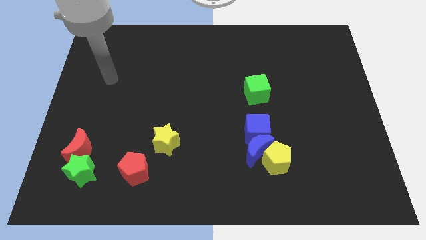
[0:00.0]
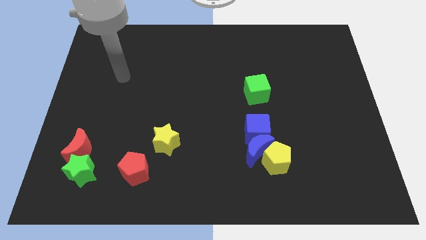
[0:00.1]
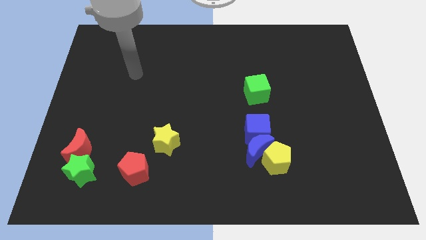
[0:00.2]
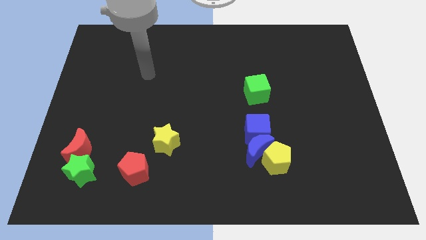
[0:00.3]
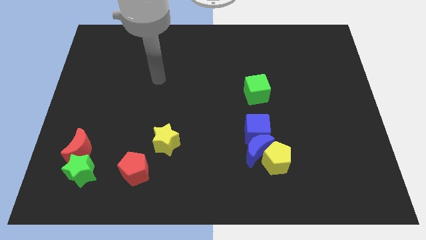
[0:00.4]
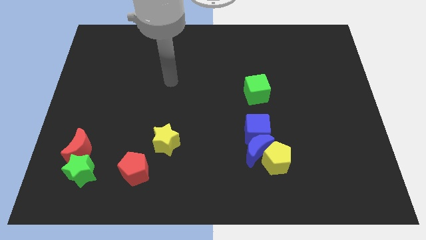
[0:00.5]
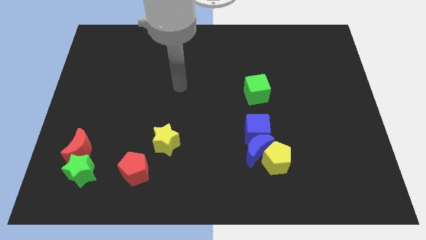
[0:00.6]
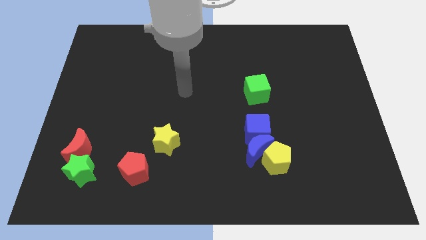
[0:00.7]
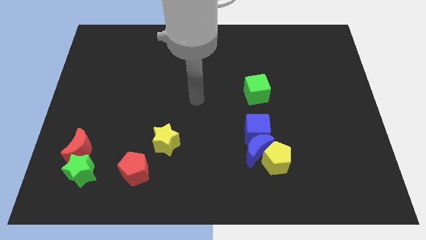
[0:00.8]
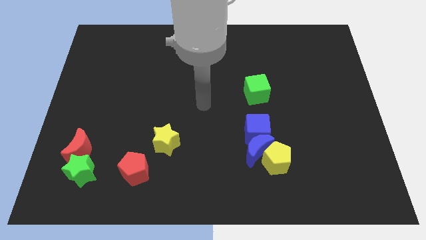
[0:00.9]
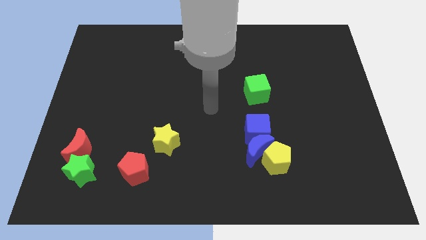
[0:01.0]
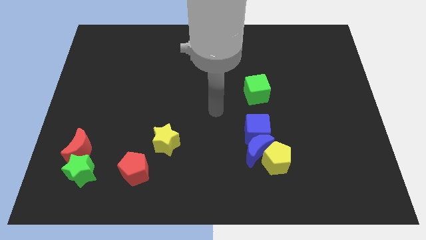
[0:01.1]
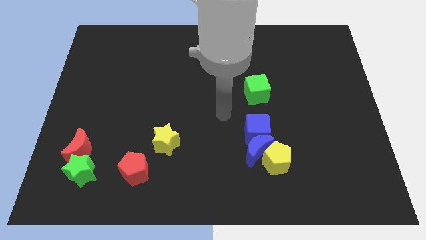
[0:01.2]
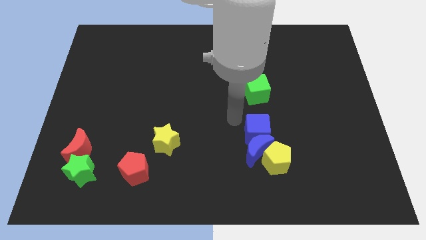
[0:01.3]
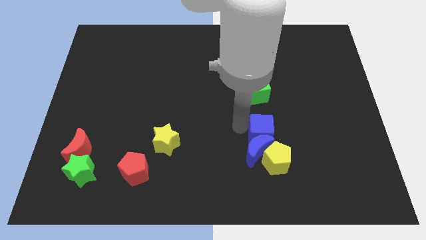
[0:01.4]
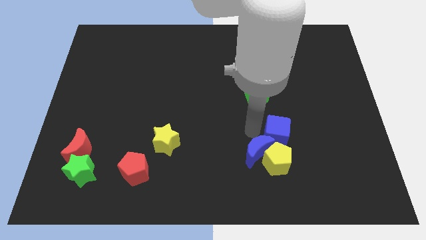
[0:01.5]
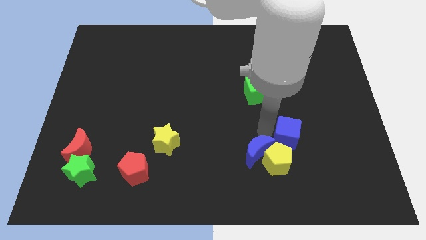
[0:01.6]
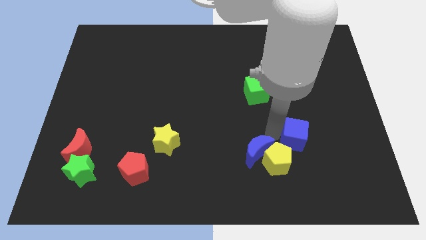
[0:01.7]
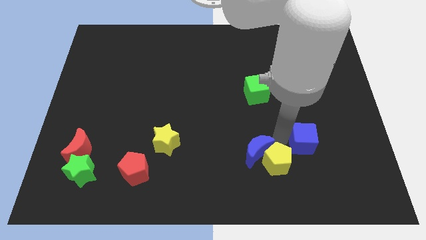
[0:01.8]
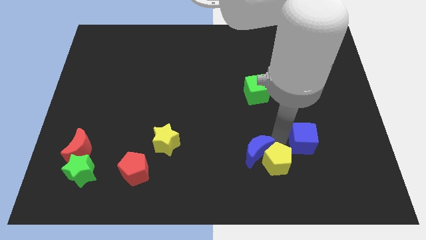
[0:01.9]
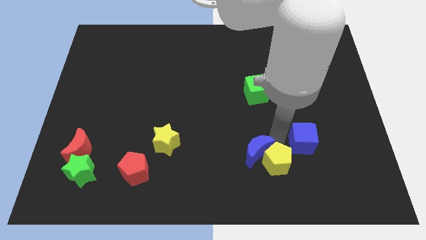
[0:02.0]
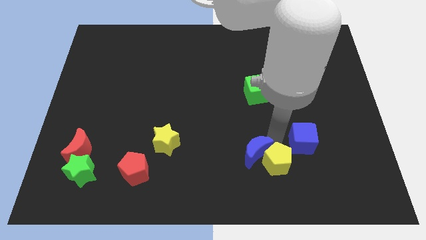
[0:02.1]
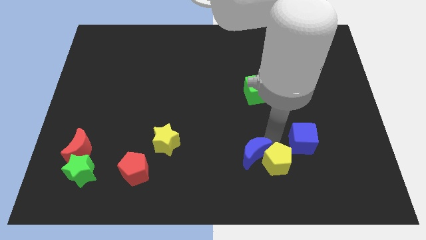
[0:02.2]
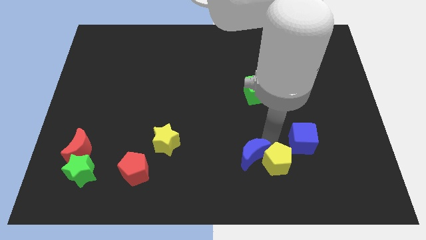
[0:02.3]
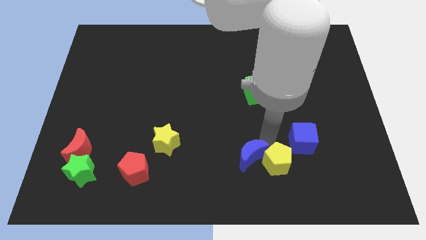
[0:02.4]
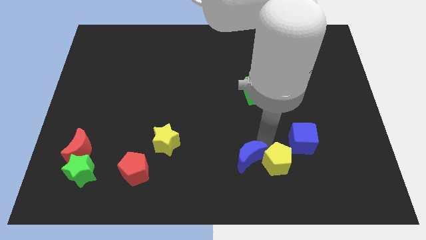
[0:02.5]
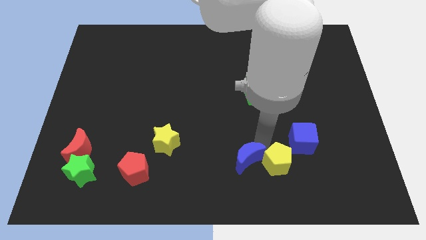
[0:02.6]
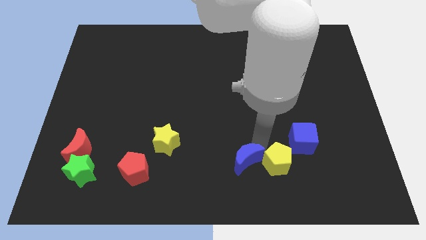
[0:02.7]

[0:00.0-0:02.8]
pull the blue moon apart from the yellow pentagon and blue cube

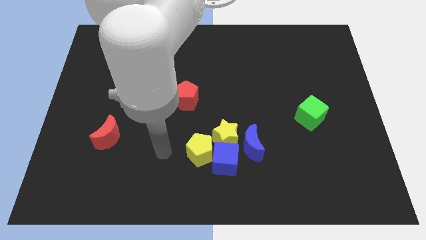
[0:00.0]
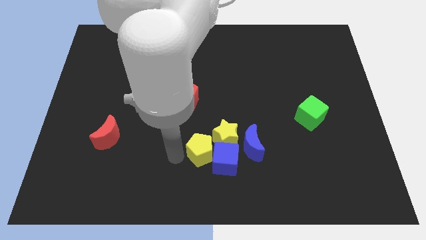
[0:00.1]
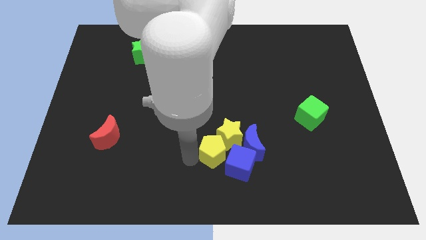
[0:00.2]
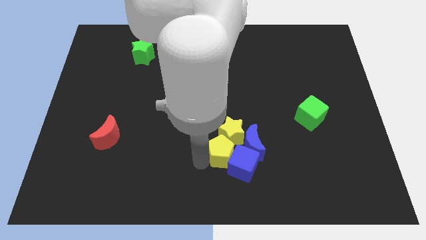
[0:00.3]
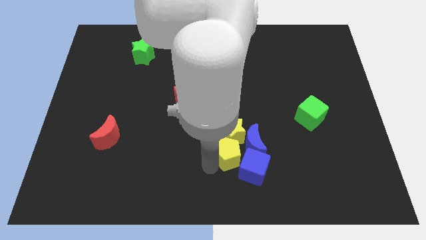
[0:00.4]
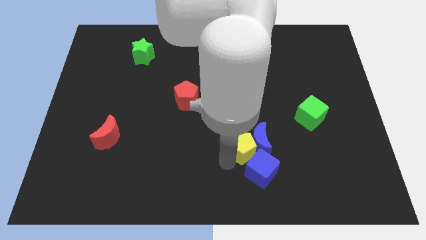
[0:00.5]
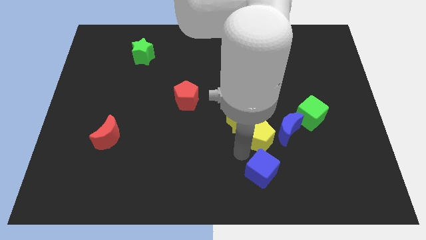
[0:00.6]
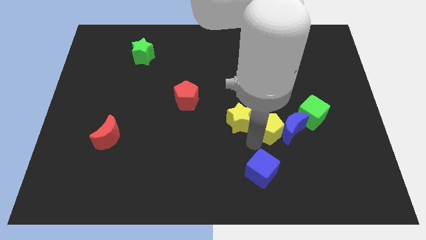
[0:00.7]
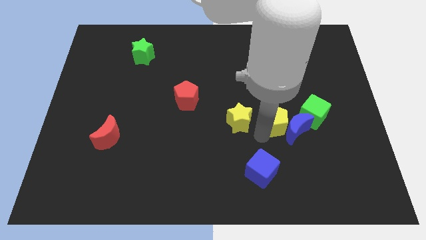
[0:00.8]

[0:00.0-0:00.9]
pull the yellow star apart from the blue moon, blue cube, and yellow pentagon

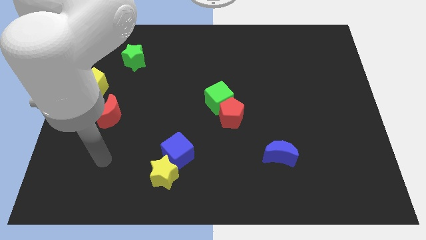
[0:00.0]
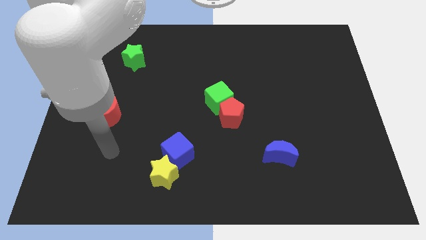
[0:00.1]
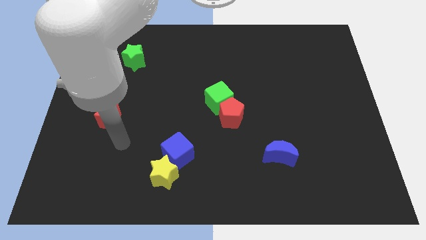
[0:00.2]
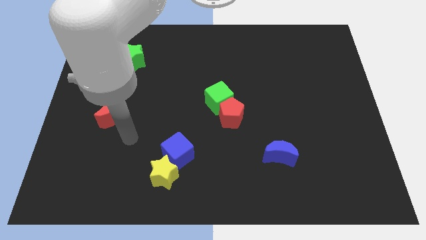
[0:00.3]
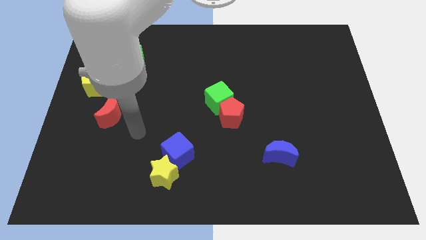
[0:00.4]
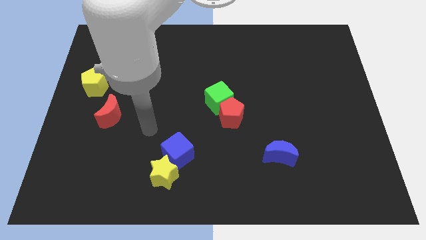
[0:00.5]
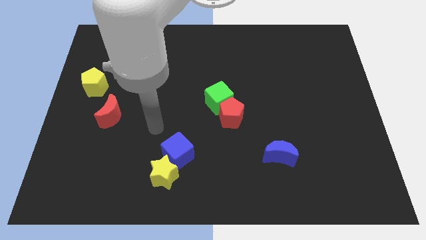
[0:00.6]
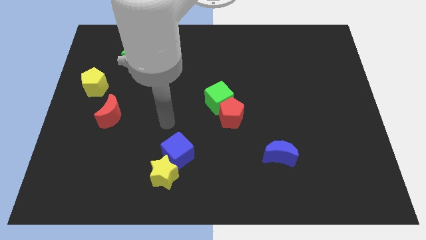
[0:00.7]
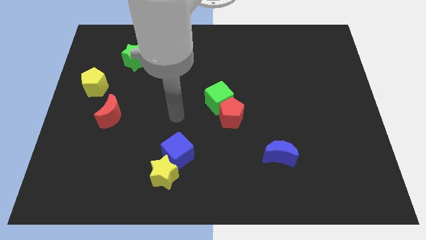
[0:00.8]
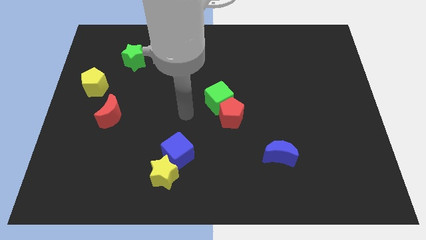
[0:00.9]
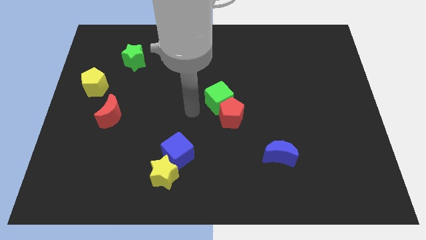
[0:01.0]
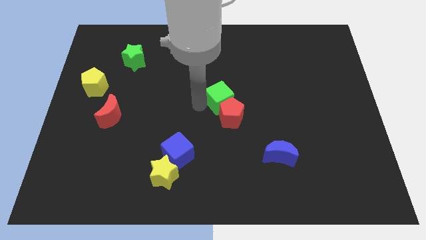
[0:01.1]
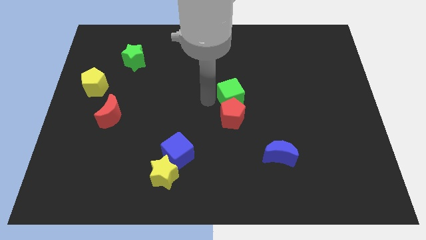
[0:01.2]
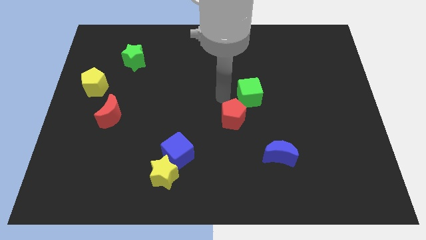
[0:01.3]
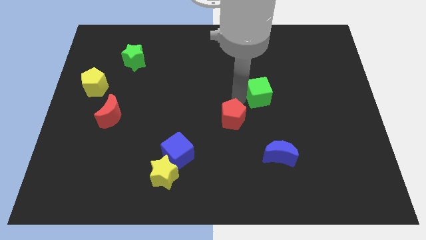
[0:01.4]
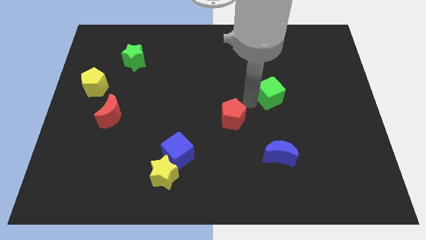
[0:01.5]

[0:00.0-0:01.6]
separate the red pentagon from the green cube

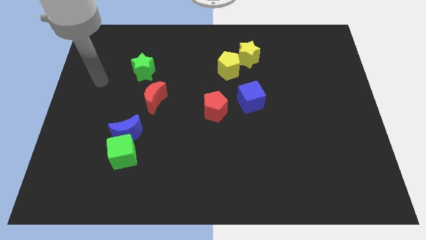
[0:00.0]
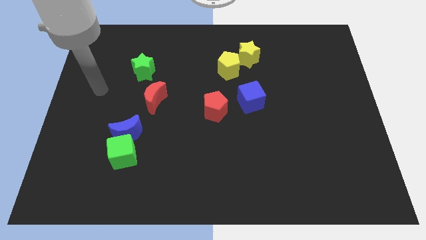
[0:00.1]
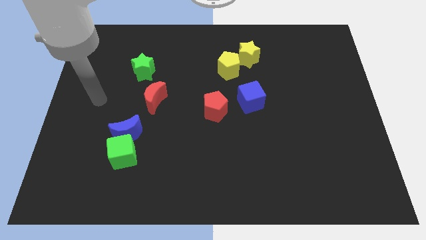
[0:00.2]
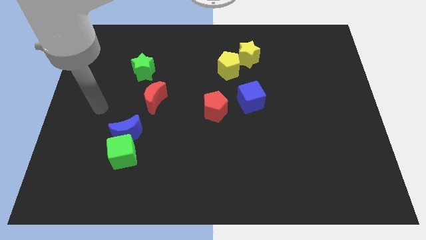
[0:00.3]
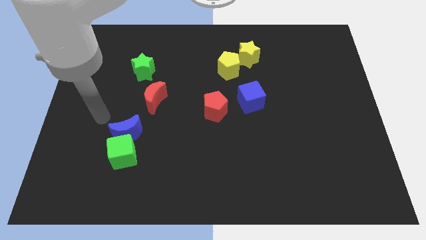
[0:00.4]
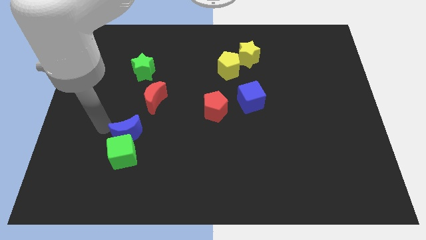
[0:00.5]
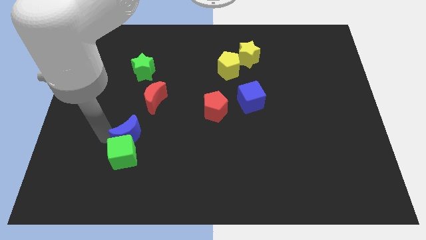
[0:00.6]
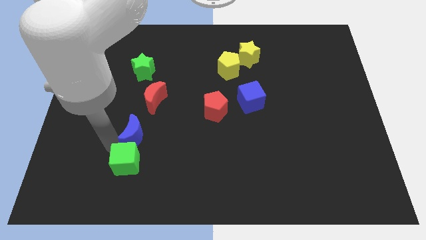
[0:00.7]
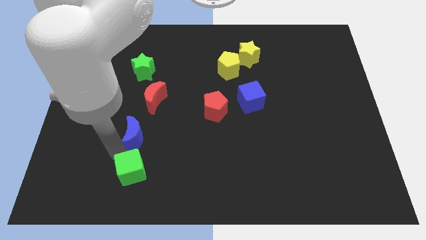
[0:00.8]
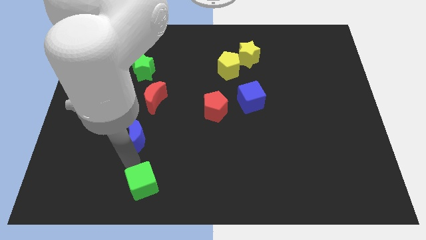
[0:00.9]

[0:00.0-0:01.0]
separate the blue moon from the green cube

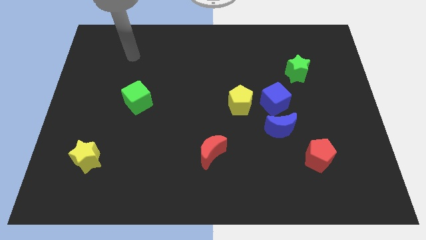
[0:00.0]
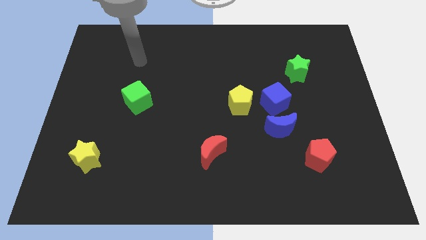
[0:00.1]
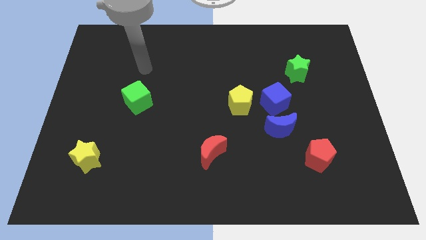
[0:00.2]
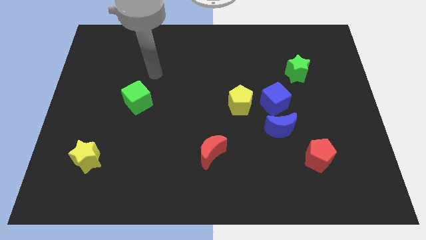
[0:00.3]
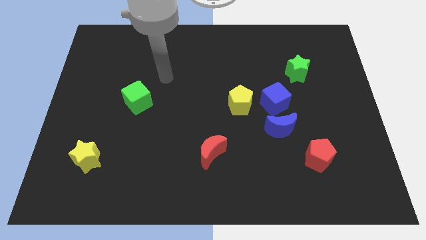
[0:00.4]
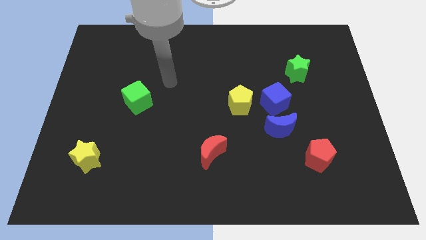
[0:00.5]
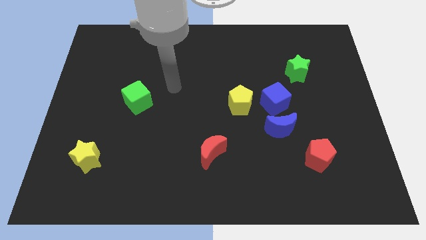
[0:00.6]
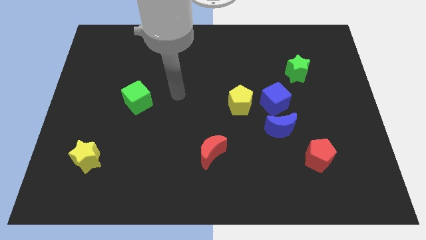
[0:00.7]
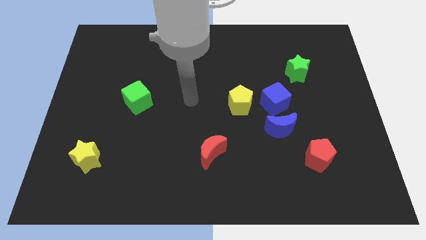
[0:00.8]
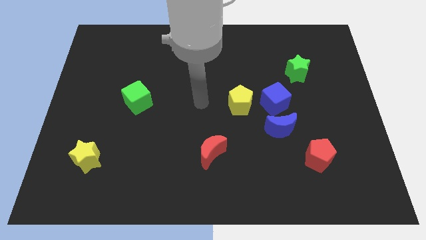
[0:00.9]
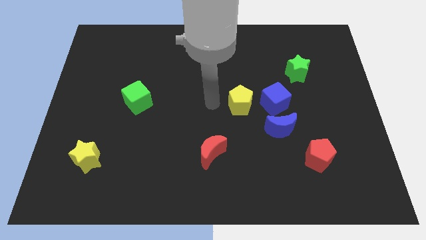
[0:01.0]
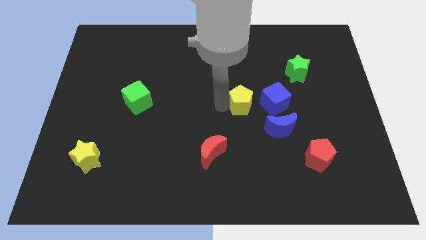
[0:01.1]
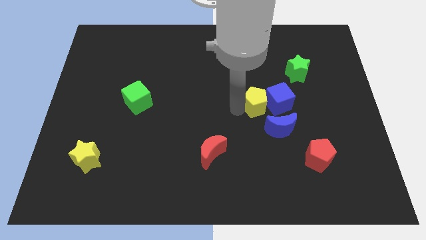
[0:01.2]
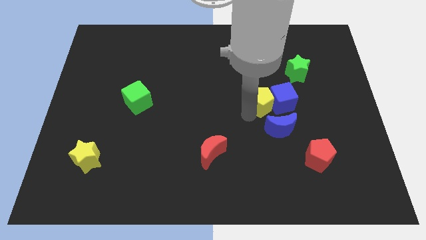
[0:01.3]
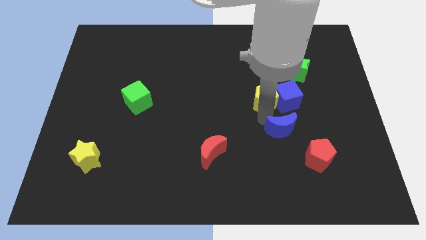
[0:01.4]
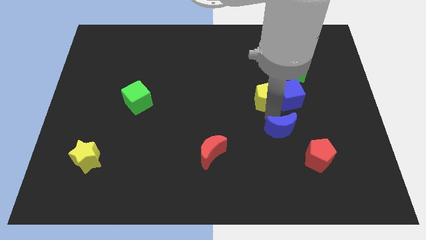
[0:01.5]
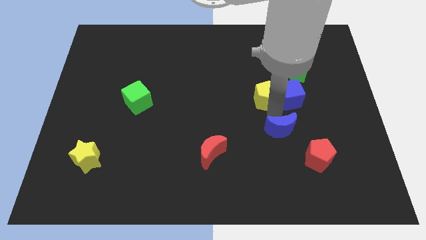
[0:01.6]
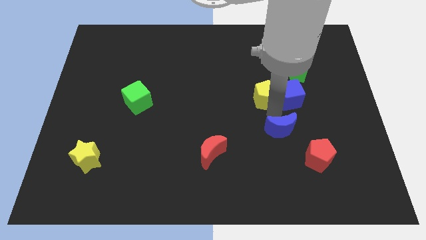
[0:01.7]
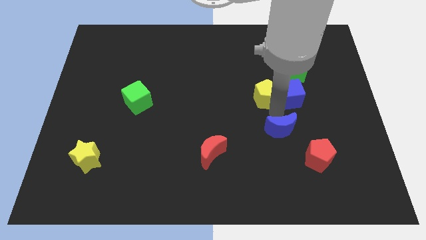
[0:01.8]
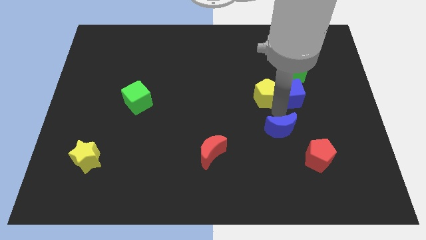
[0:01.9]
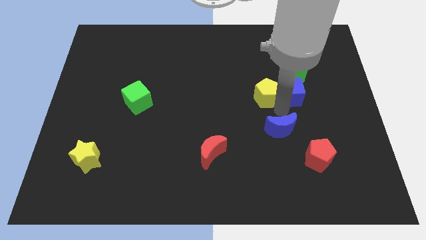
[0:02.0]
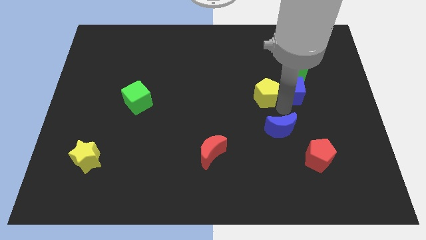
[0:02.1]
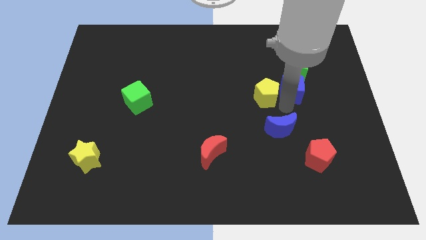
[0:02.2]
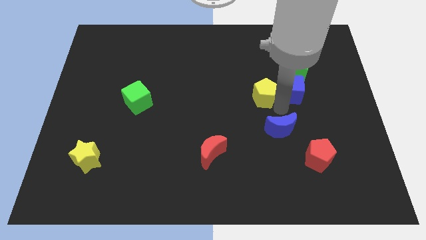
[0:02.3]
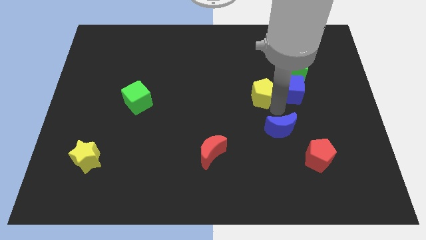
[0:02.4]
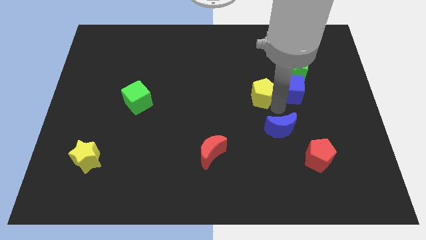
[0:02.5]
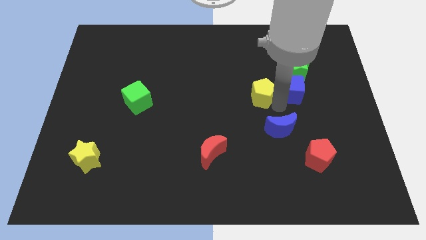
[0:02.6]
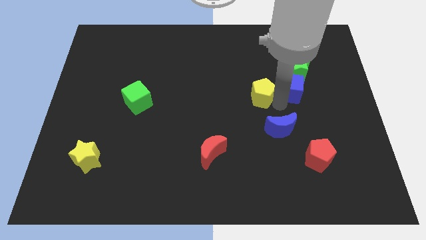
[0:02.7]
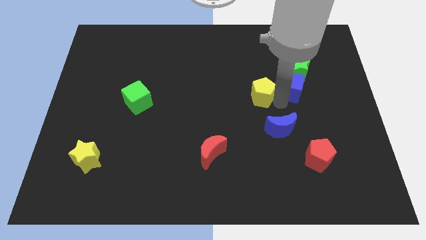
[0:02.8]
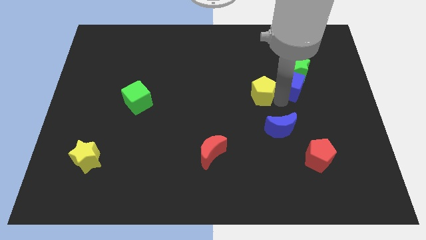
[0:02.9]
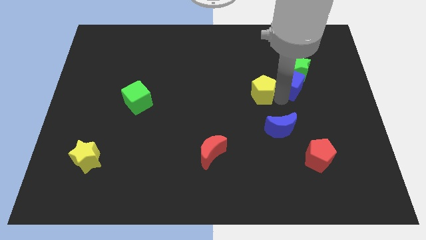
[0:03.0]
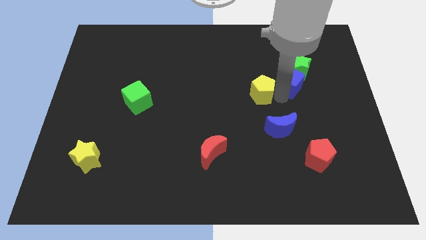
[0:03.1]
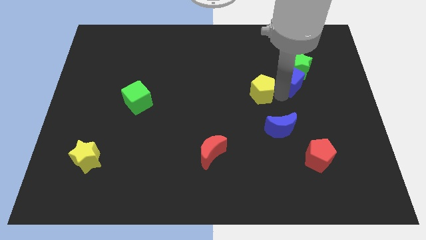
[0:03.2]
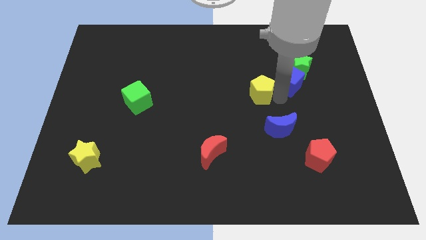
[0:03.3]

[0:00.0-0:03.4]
move the blue cube away from the blue moon and yellow pentagon
